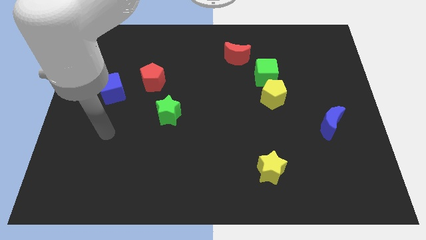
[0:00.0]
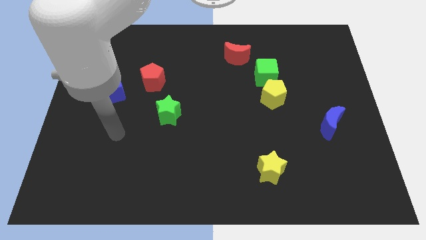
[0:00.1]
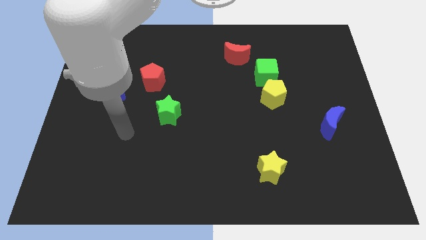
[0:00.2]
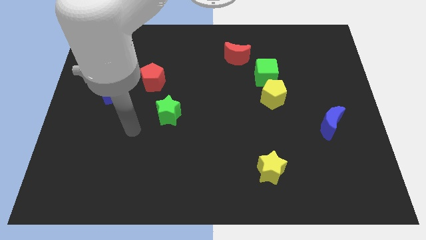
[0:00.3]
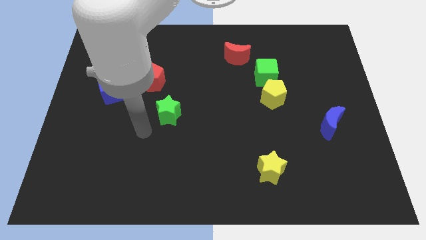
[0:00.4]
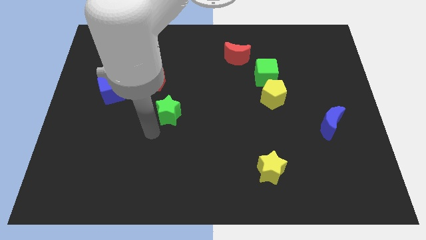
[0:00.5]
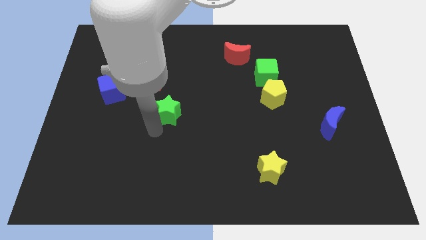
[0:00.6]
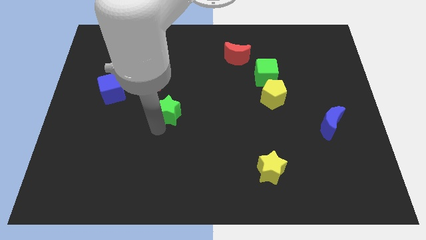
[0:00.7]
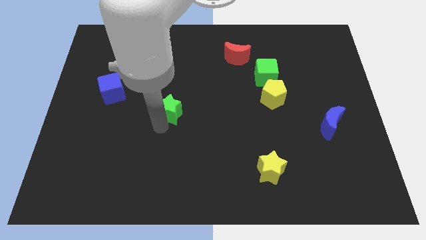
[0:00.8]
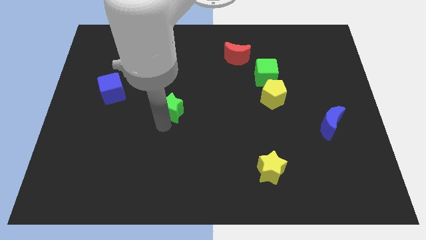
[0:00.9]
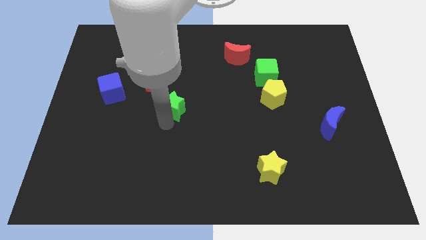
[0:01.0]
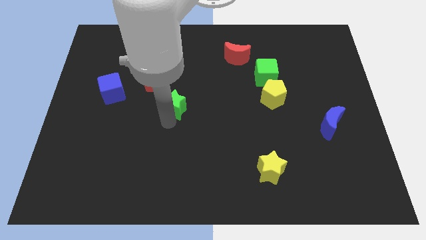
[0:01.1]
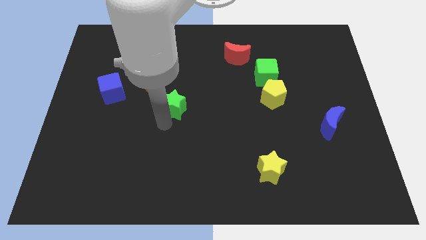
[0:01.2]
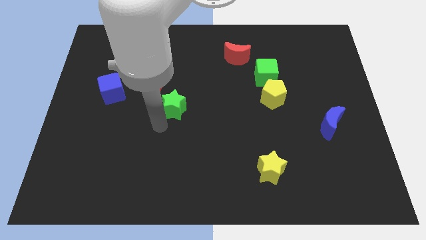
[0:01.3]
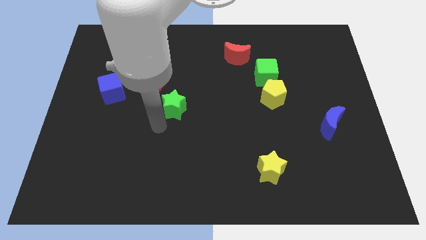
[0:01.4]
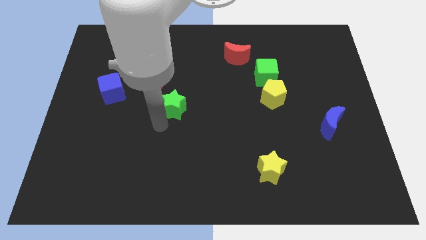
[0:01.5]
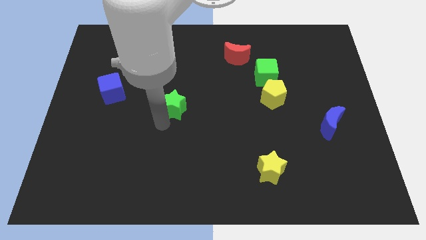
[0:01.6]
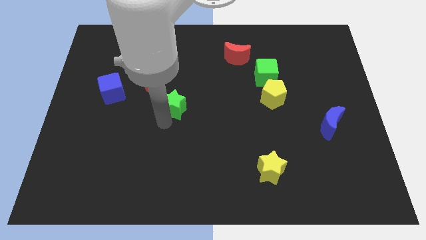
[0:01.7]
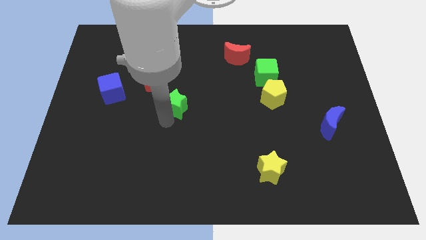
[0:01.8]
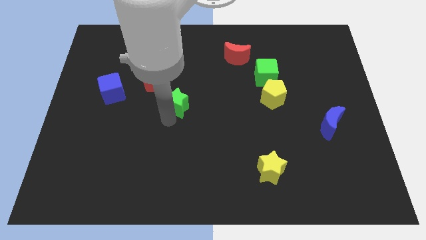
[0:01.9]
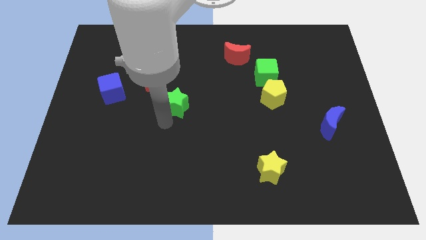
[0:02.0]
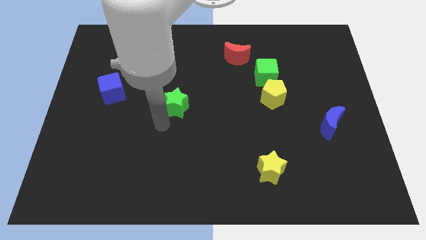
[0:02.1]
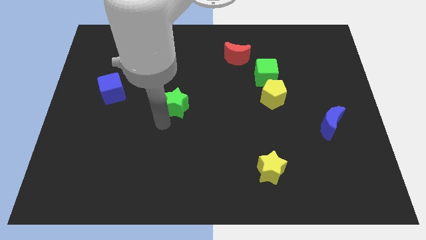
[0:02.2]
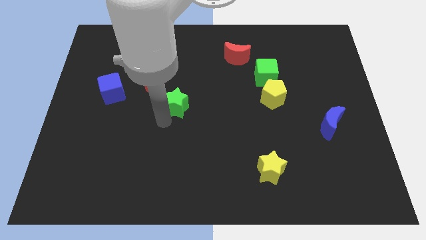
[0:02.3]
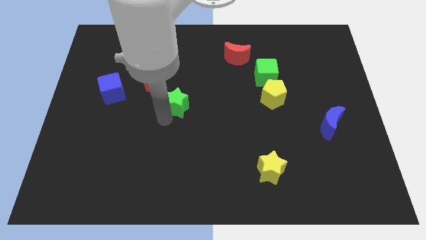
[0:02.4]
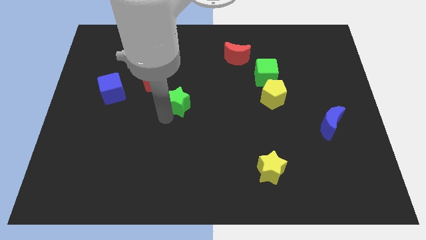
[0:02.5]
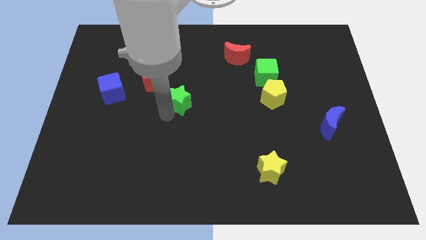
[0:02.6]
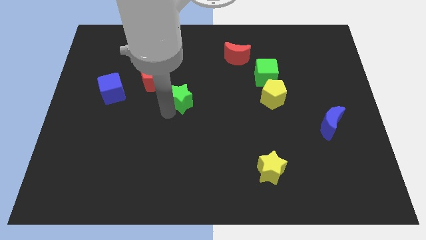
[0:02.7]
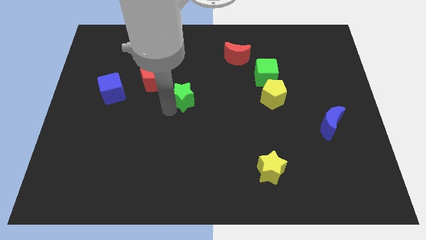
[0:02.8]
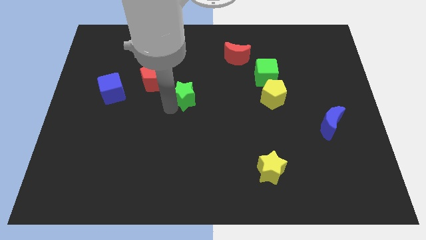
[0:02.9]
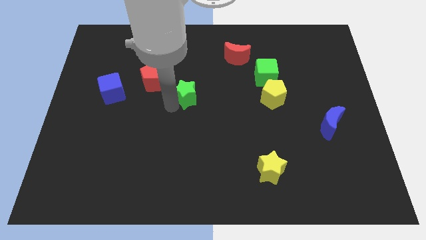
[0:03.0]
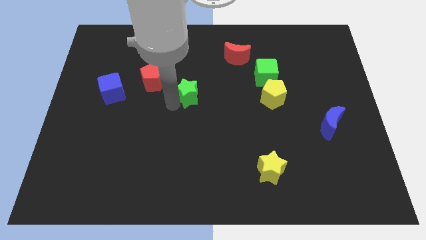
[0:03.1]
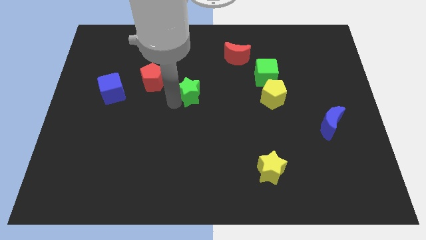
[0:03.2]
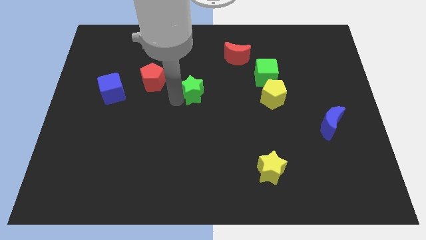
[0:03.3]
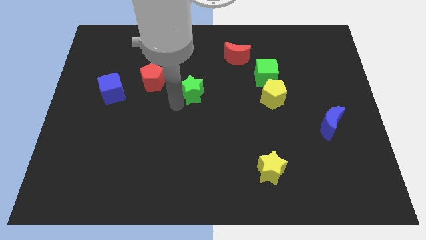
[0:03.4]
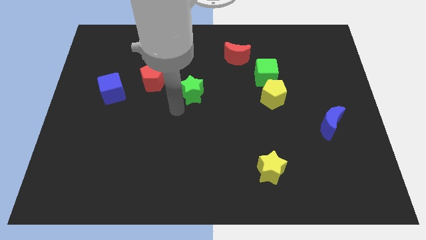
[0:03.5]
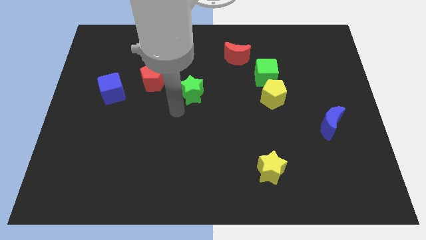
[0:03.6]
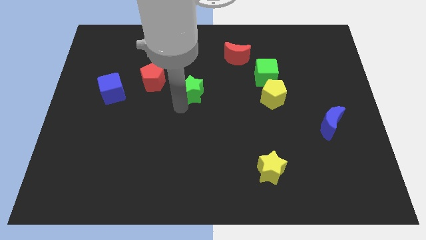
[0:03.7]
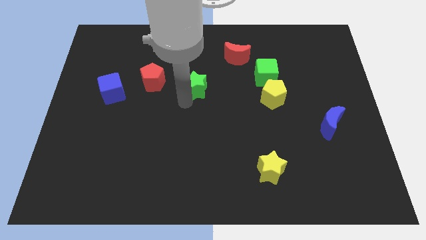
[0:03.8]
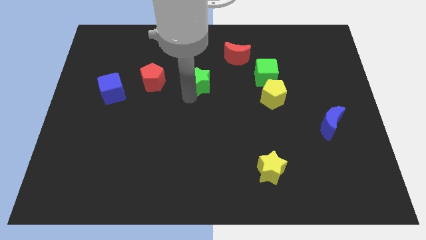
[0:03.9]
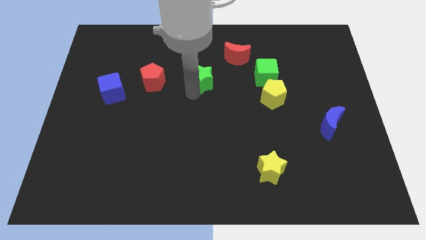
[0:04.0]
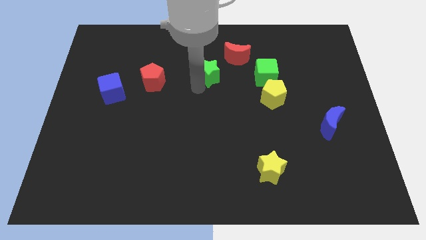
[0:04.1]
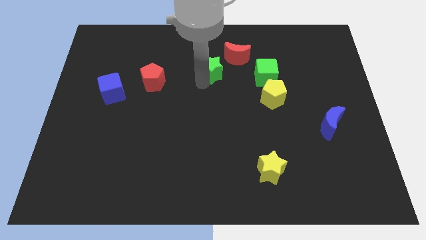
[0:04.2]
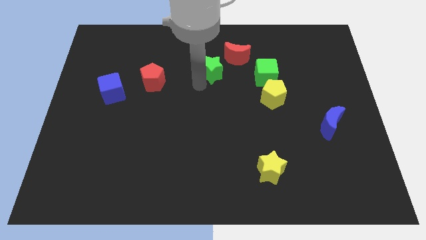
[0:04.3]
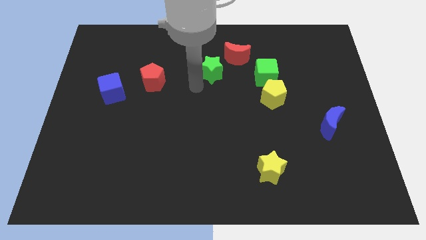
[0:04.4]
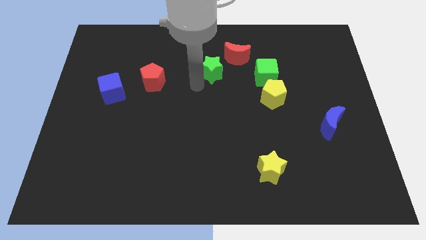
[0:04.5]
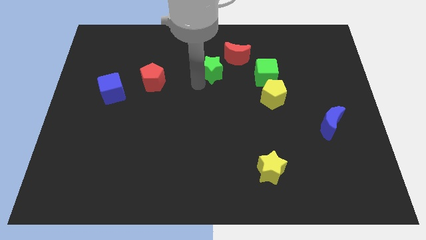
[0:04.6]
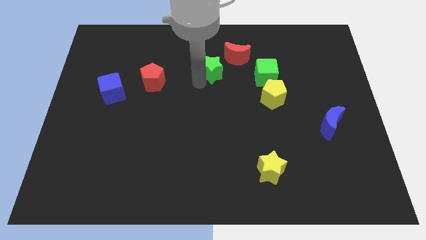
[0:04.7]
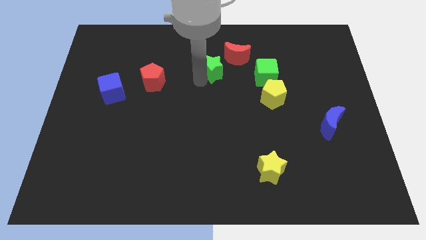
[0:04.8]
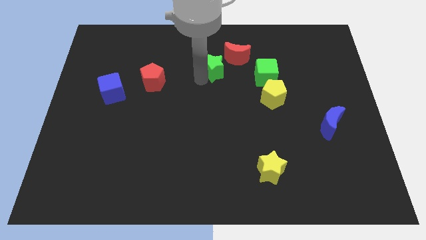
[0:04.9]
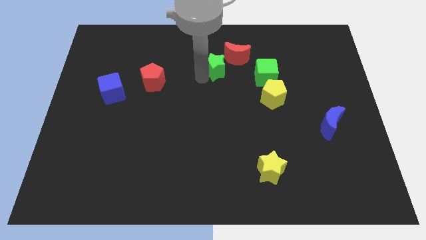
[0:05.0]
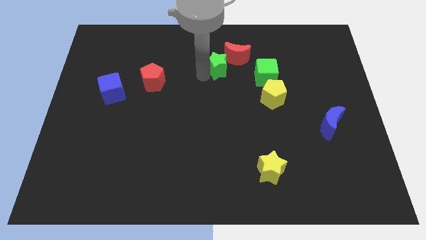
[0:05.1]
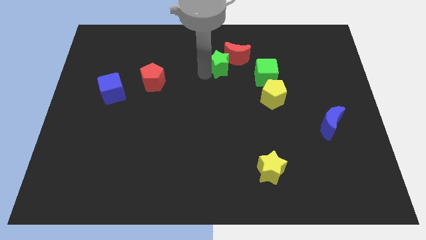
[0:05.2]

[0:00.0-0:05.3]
move the green star to the red moon
